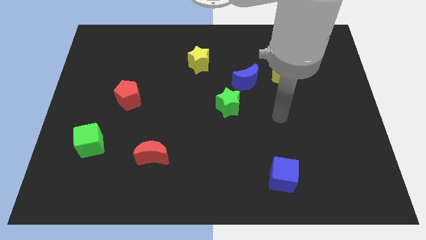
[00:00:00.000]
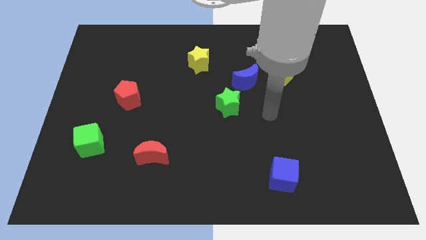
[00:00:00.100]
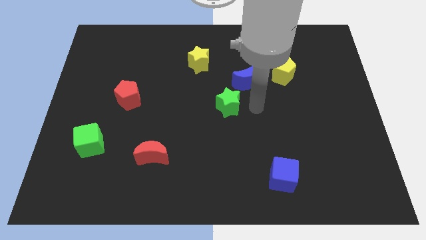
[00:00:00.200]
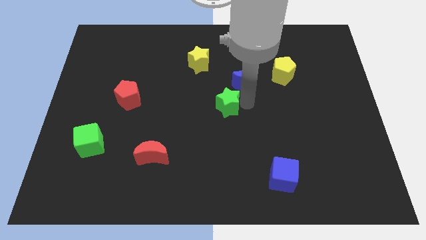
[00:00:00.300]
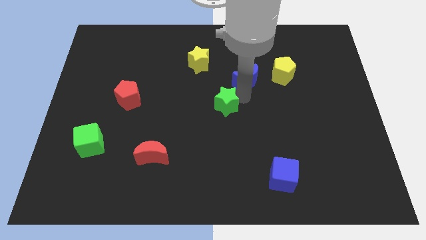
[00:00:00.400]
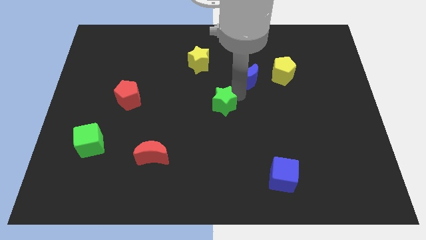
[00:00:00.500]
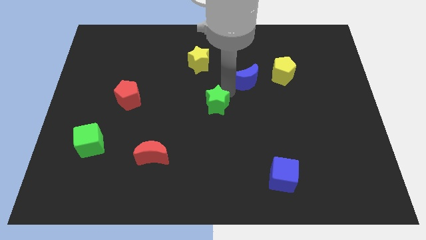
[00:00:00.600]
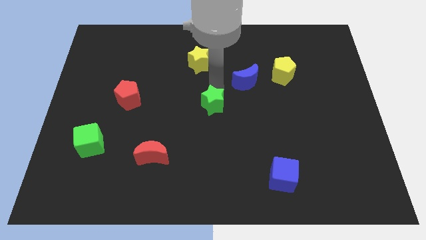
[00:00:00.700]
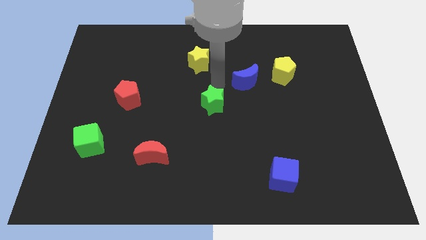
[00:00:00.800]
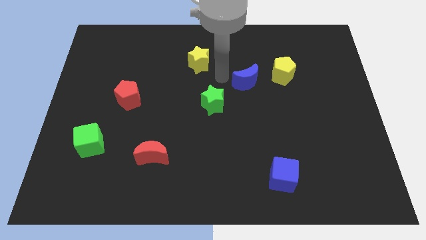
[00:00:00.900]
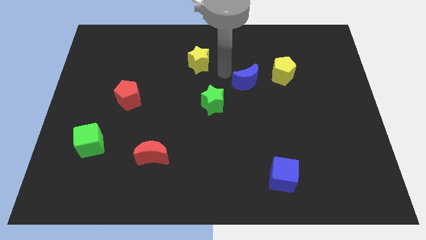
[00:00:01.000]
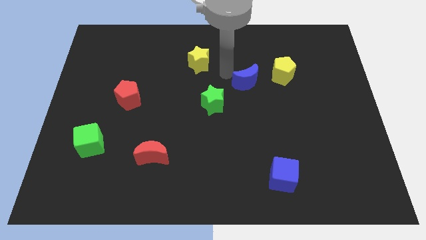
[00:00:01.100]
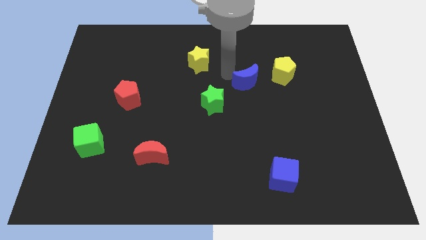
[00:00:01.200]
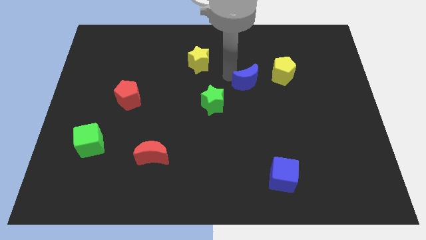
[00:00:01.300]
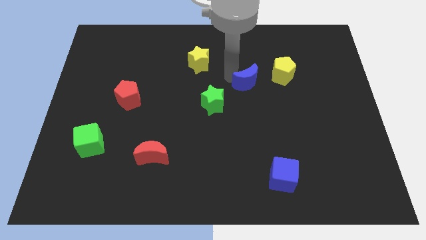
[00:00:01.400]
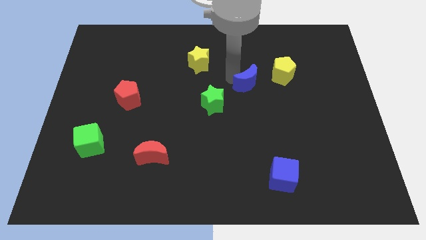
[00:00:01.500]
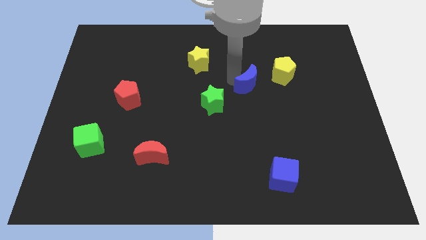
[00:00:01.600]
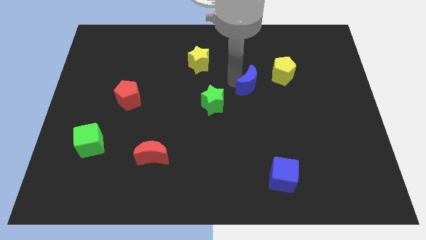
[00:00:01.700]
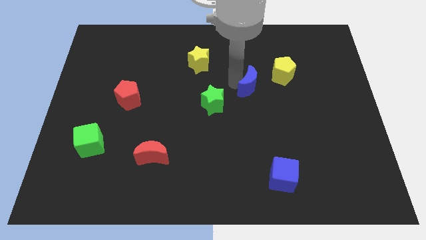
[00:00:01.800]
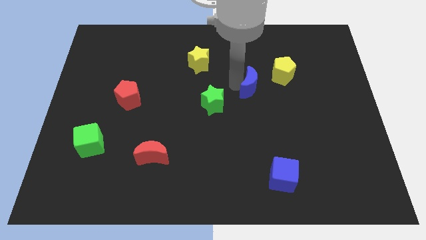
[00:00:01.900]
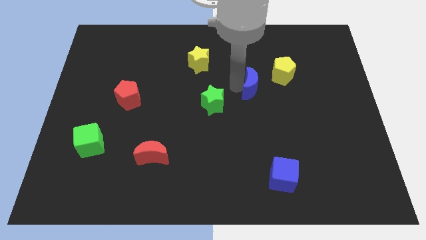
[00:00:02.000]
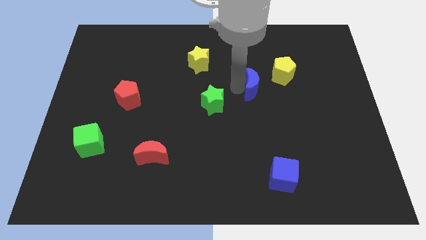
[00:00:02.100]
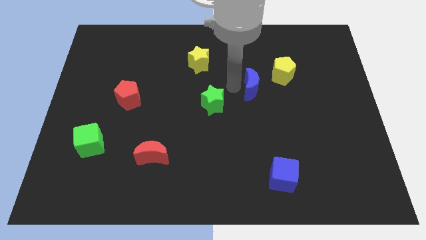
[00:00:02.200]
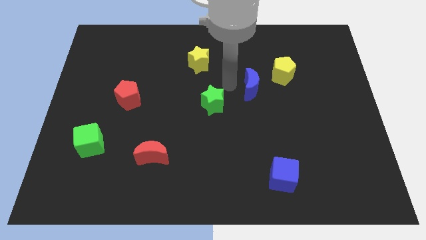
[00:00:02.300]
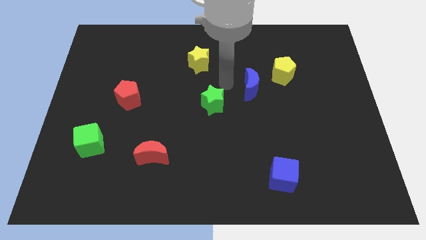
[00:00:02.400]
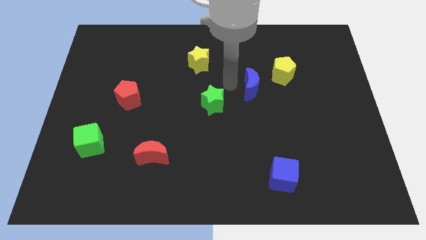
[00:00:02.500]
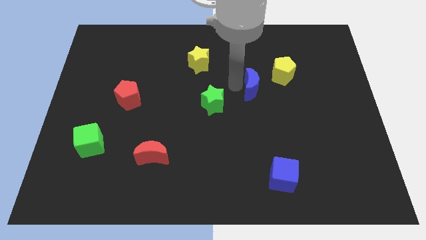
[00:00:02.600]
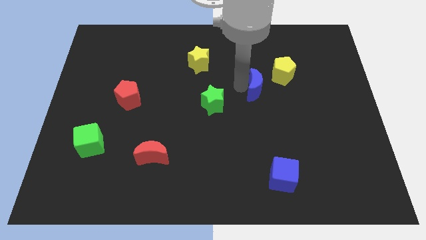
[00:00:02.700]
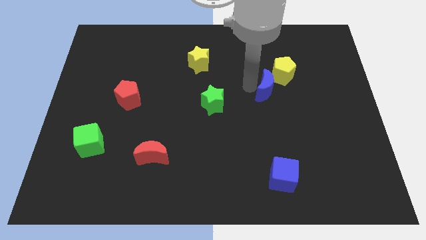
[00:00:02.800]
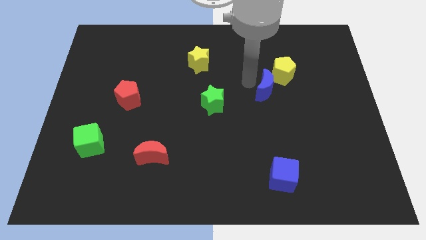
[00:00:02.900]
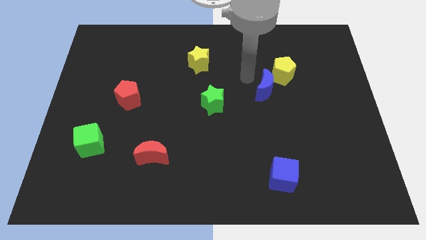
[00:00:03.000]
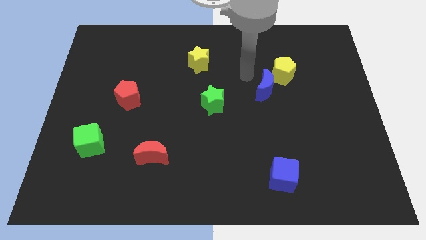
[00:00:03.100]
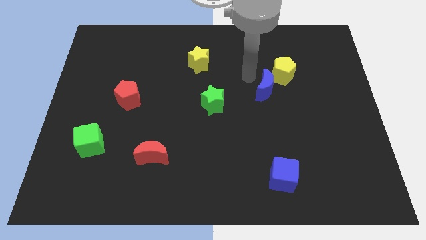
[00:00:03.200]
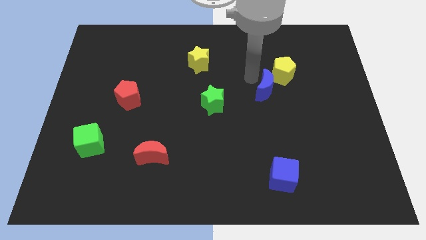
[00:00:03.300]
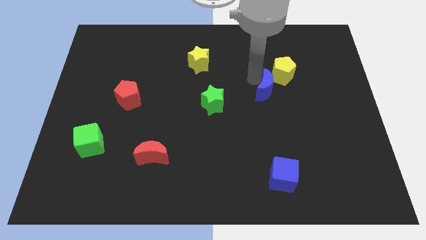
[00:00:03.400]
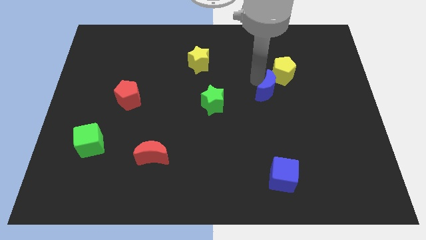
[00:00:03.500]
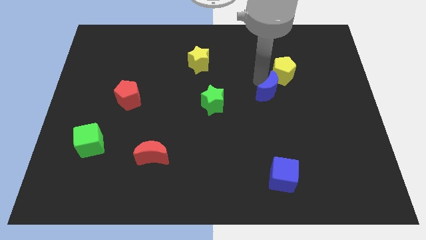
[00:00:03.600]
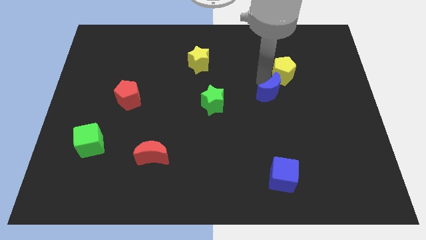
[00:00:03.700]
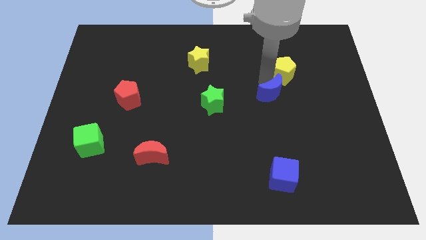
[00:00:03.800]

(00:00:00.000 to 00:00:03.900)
slide the blue moon a little downwards and then right

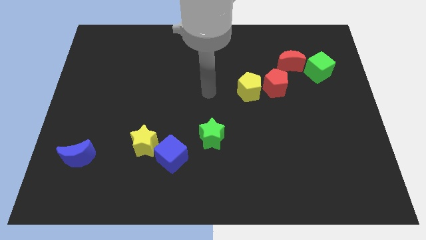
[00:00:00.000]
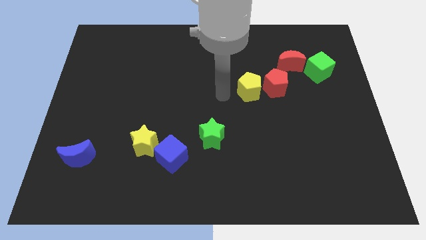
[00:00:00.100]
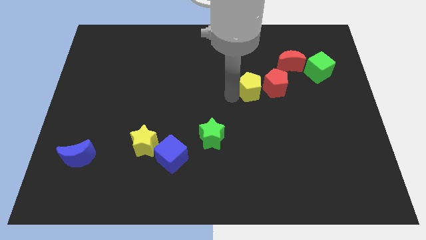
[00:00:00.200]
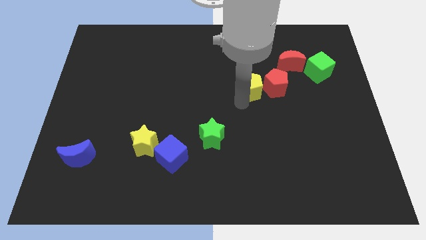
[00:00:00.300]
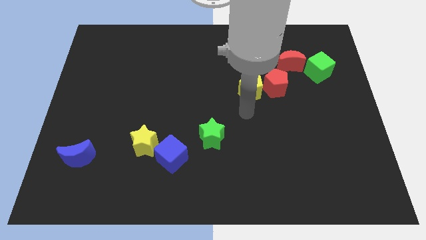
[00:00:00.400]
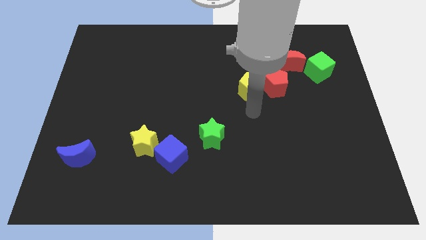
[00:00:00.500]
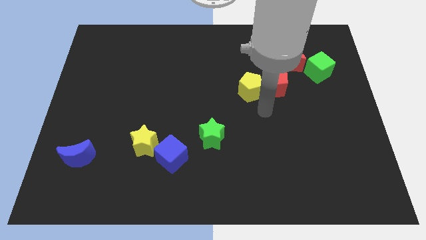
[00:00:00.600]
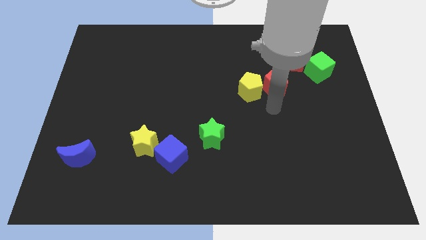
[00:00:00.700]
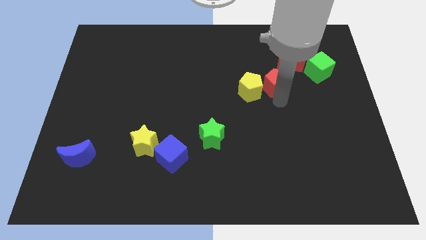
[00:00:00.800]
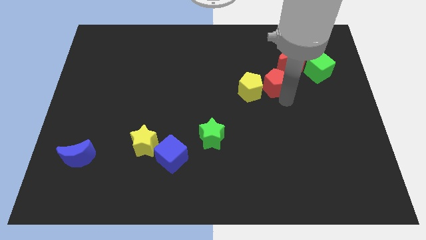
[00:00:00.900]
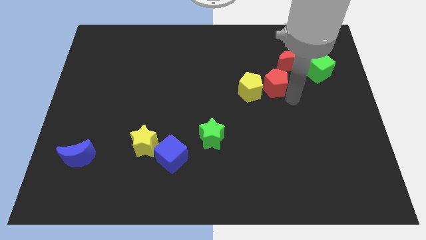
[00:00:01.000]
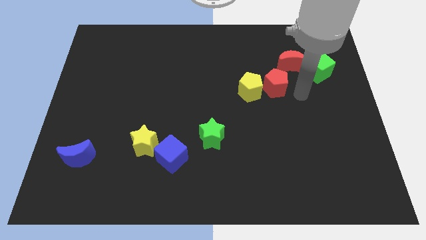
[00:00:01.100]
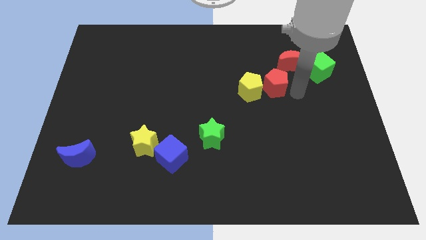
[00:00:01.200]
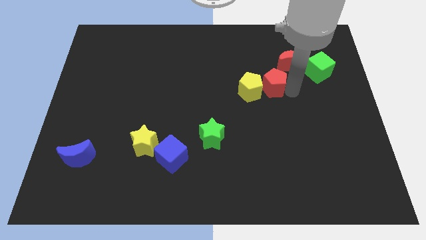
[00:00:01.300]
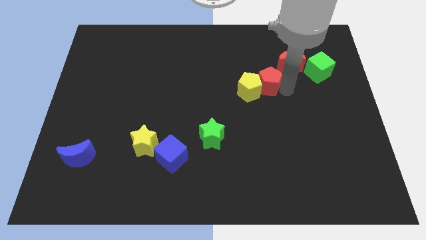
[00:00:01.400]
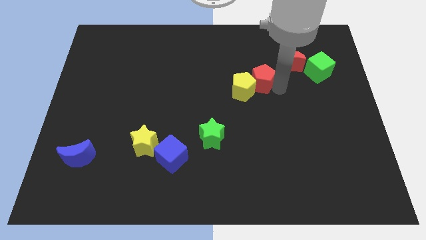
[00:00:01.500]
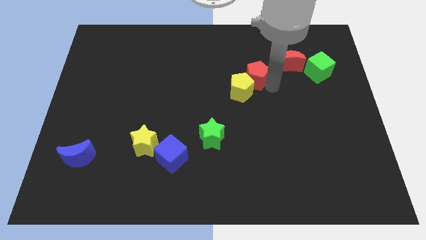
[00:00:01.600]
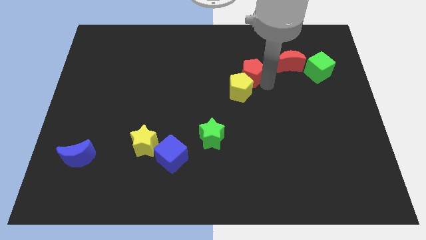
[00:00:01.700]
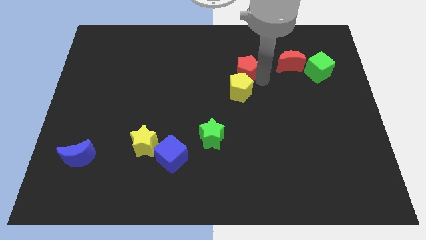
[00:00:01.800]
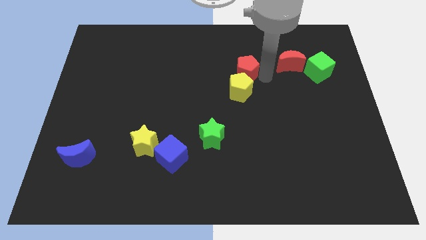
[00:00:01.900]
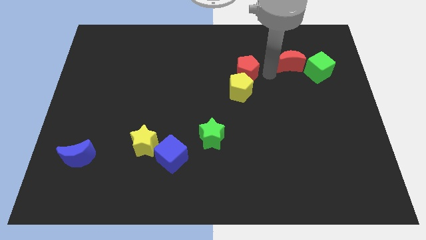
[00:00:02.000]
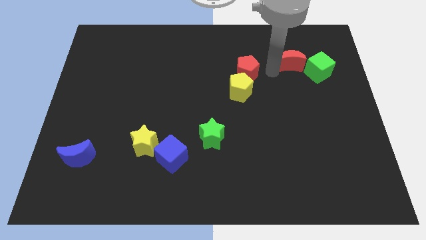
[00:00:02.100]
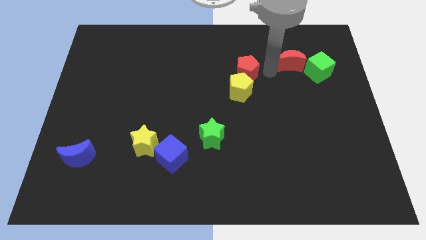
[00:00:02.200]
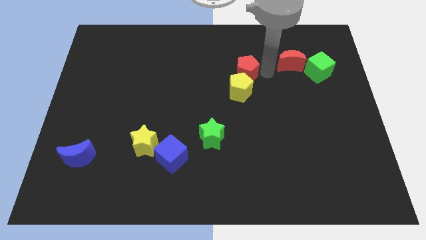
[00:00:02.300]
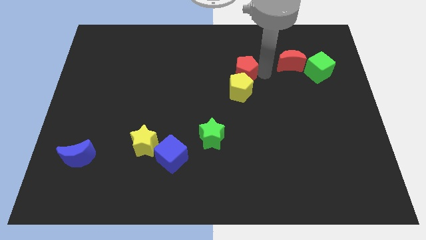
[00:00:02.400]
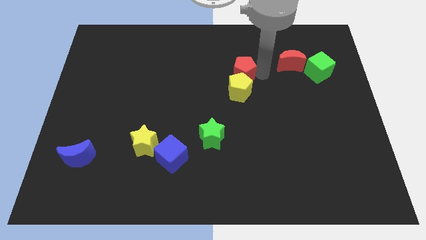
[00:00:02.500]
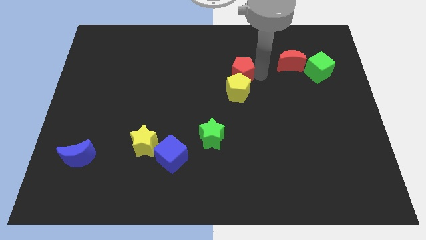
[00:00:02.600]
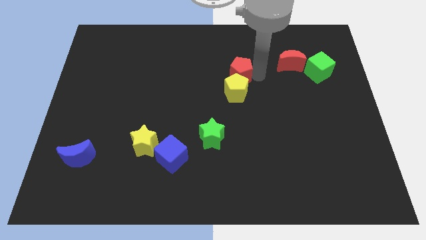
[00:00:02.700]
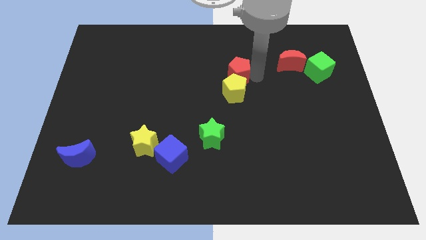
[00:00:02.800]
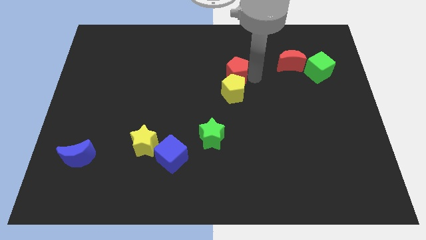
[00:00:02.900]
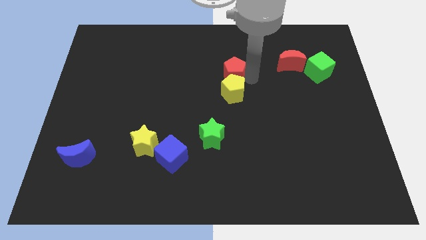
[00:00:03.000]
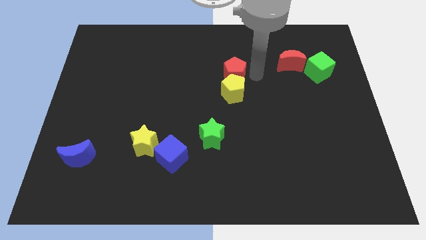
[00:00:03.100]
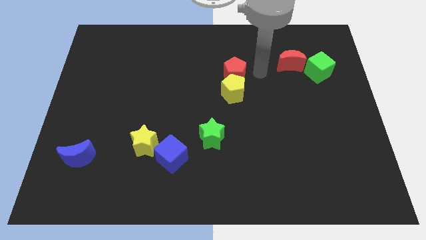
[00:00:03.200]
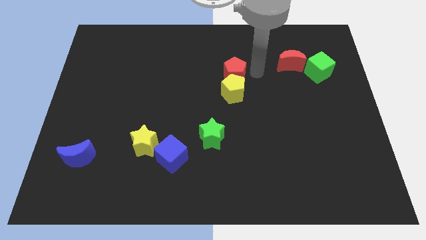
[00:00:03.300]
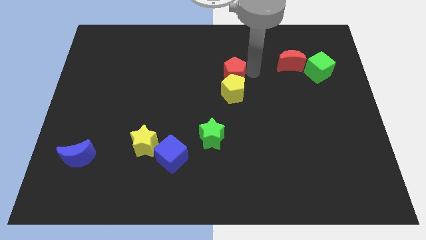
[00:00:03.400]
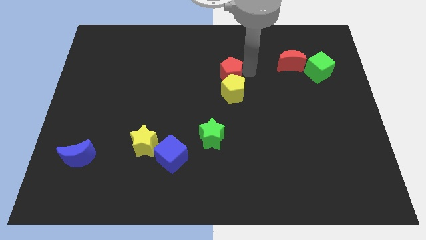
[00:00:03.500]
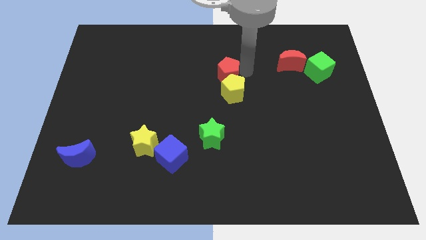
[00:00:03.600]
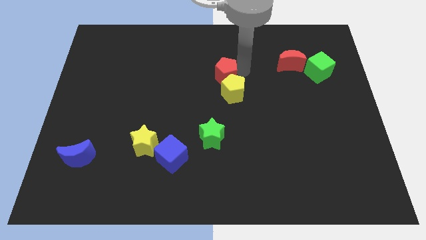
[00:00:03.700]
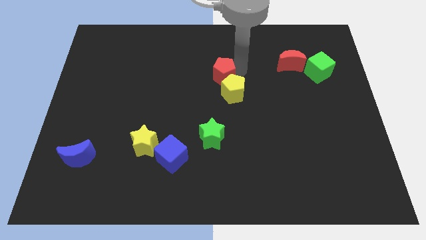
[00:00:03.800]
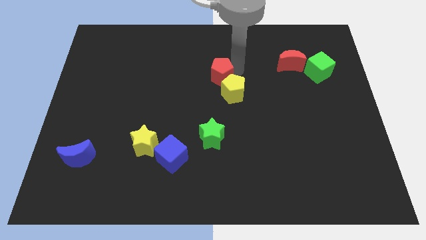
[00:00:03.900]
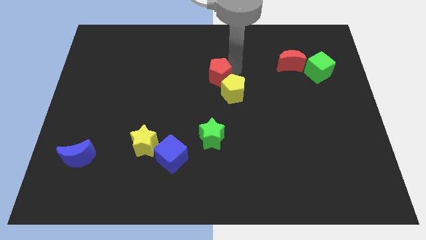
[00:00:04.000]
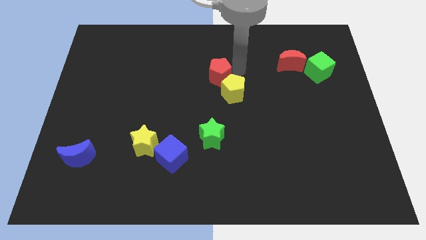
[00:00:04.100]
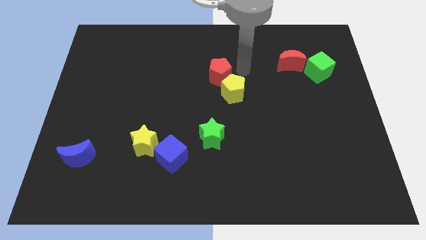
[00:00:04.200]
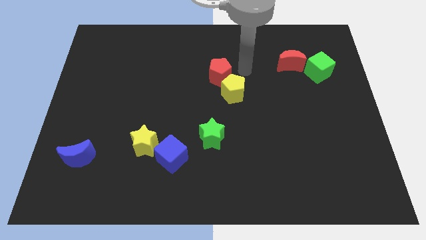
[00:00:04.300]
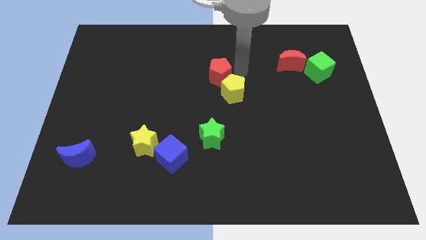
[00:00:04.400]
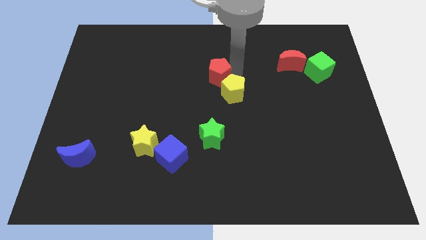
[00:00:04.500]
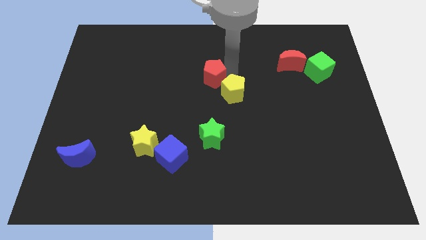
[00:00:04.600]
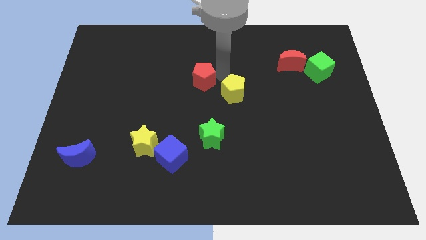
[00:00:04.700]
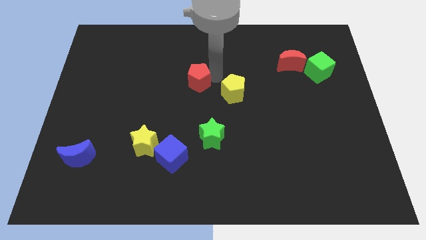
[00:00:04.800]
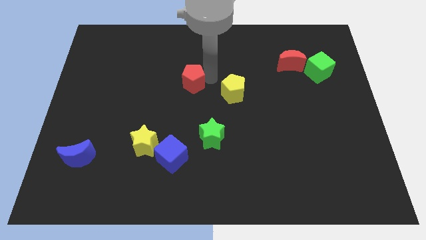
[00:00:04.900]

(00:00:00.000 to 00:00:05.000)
push the red pentagon left
